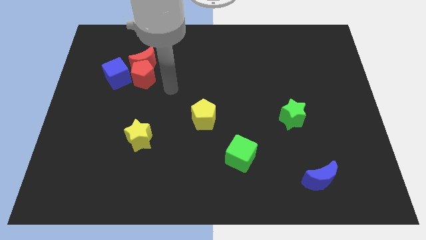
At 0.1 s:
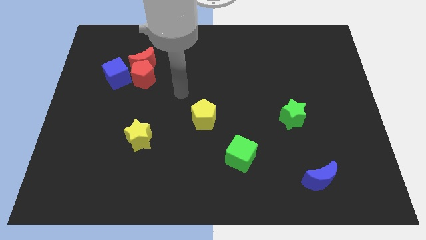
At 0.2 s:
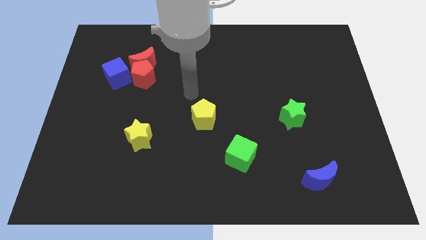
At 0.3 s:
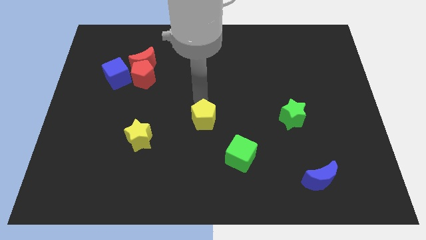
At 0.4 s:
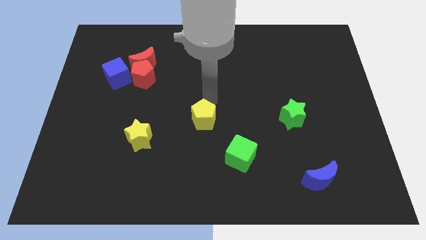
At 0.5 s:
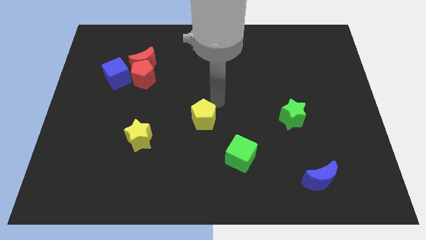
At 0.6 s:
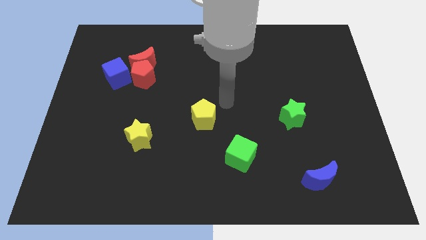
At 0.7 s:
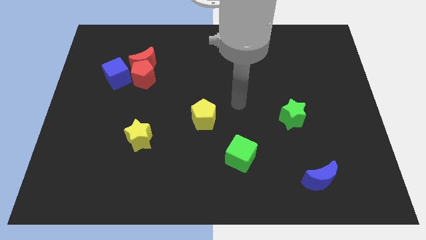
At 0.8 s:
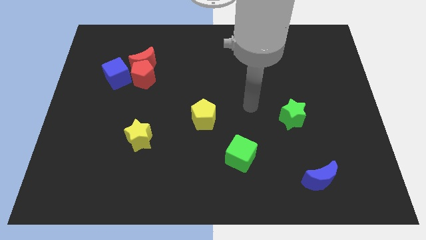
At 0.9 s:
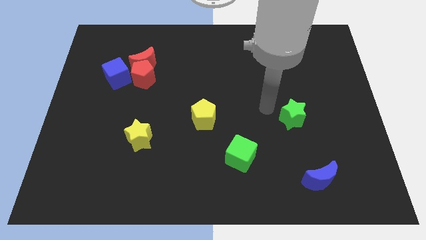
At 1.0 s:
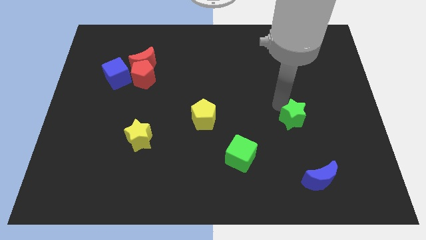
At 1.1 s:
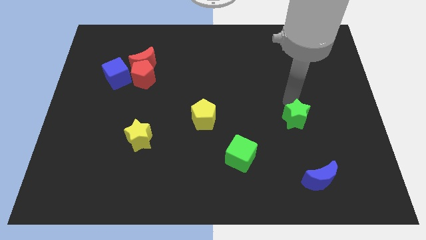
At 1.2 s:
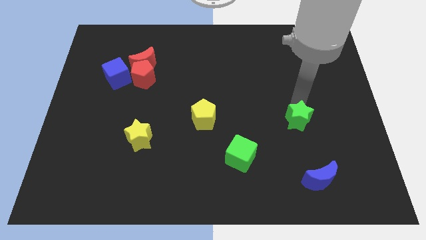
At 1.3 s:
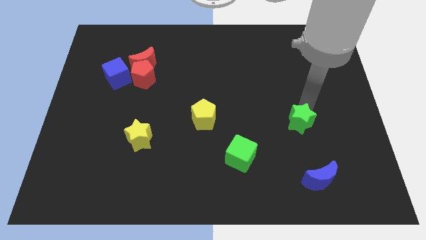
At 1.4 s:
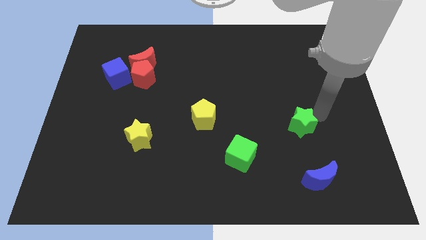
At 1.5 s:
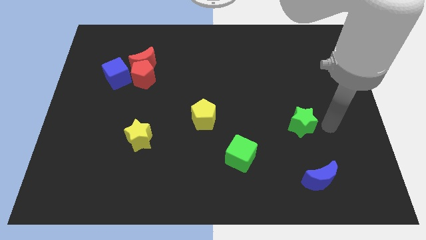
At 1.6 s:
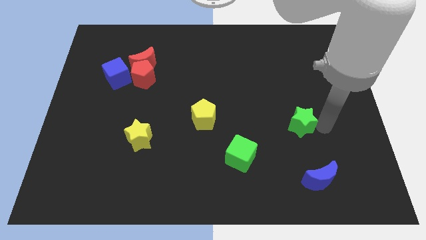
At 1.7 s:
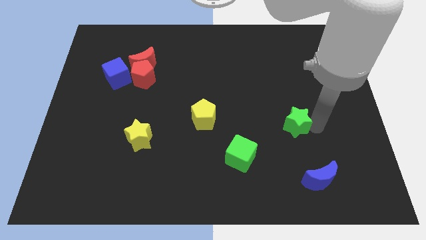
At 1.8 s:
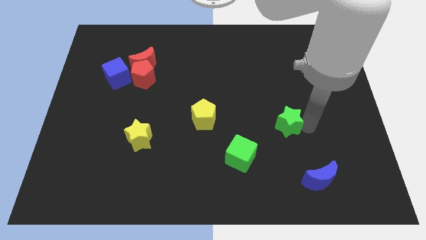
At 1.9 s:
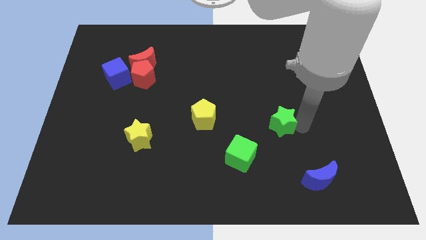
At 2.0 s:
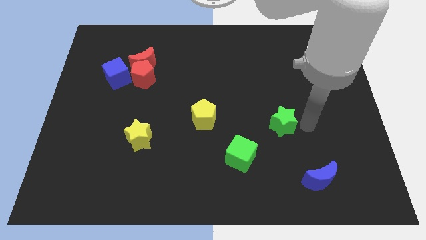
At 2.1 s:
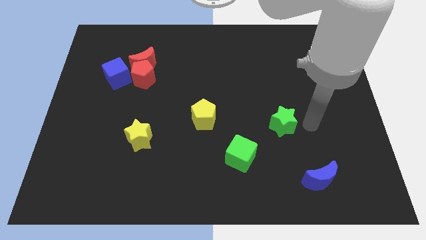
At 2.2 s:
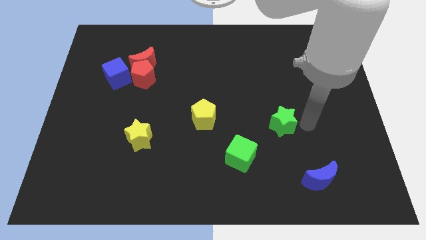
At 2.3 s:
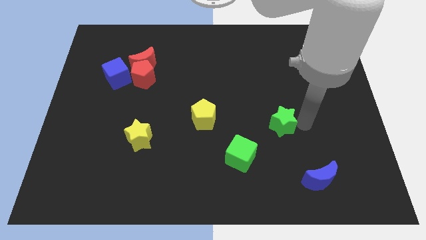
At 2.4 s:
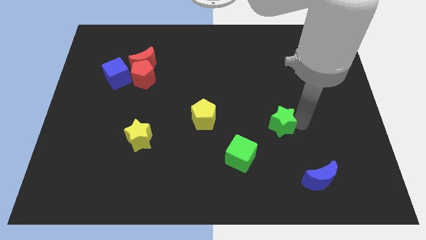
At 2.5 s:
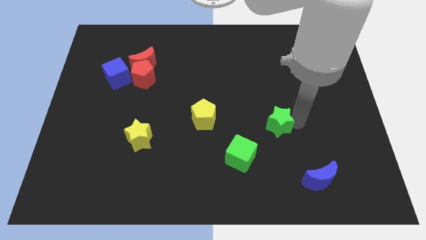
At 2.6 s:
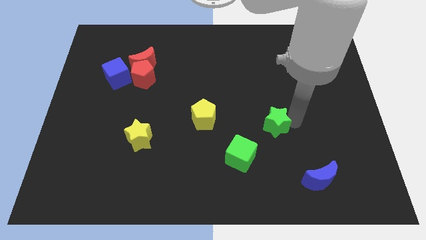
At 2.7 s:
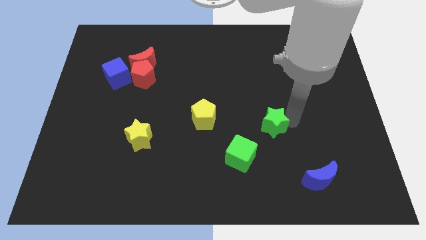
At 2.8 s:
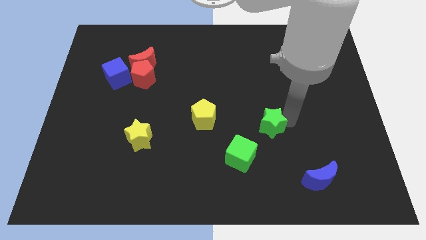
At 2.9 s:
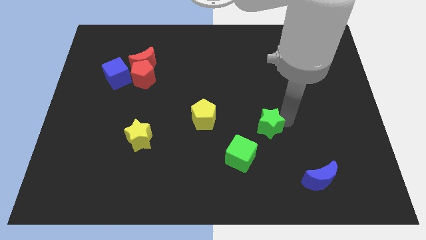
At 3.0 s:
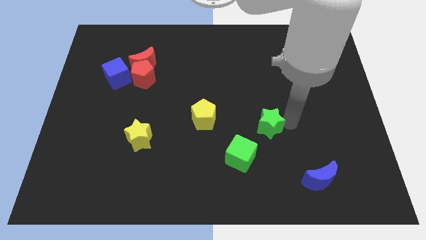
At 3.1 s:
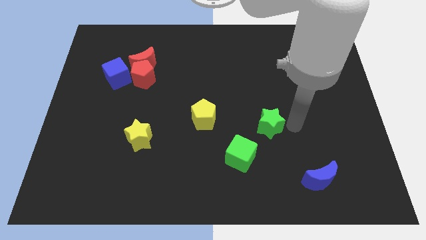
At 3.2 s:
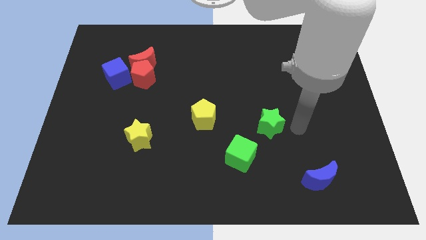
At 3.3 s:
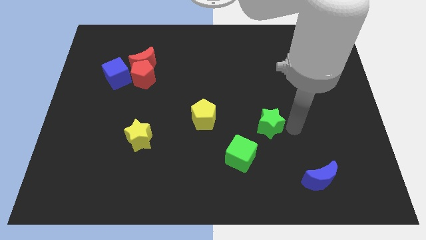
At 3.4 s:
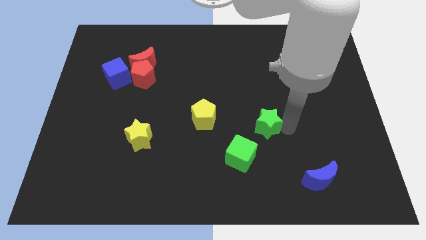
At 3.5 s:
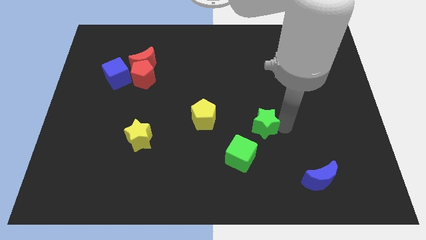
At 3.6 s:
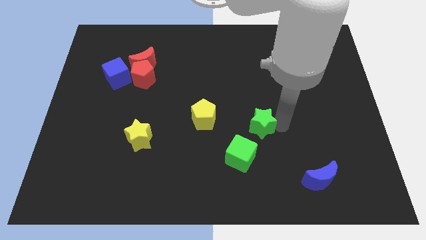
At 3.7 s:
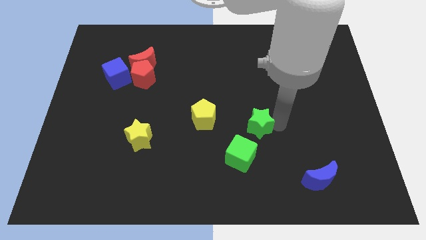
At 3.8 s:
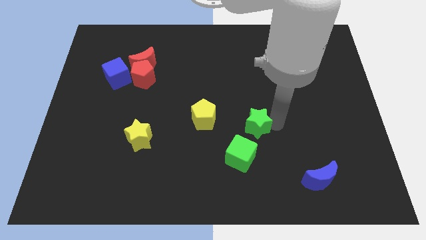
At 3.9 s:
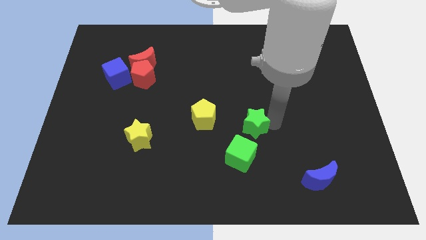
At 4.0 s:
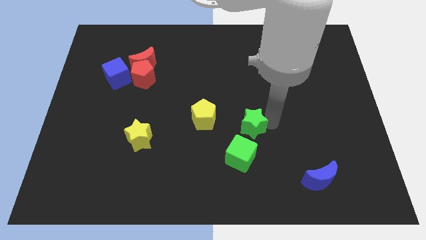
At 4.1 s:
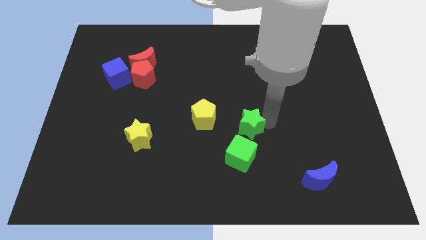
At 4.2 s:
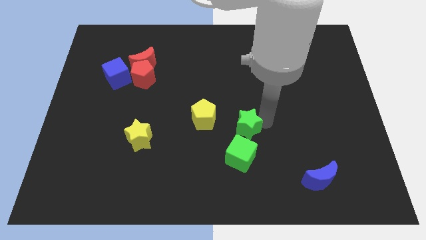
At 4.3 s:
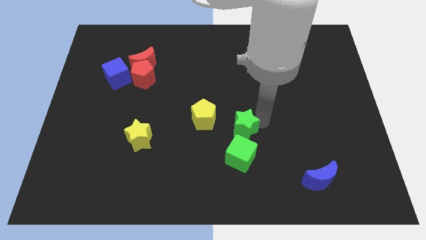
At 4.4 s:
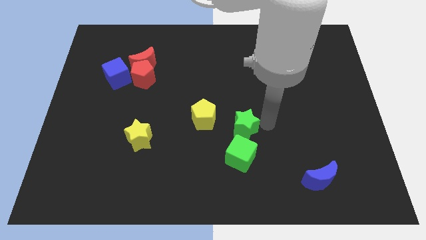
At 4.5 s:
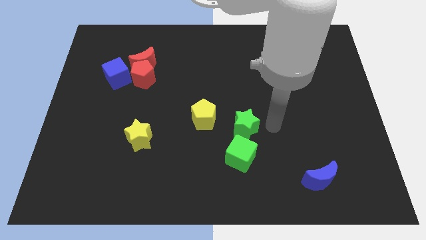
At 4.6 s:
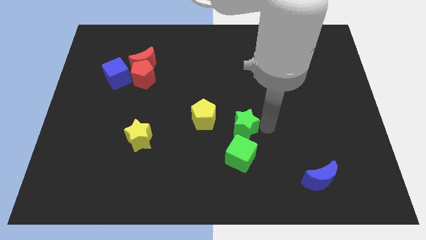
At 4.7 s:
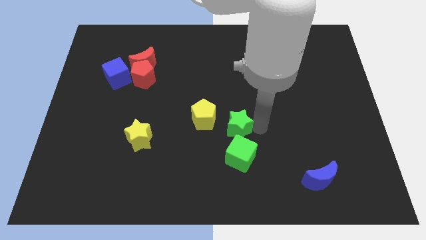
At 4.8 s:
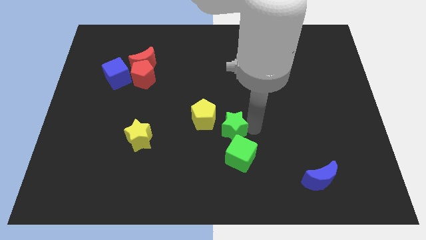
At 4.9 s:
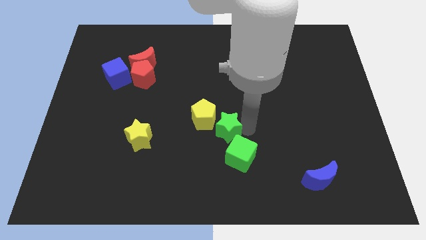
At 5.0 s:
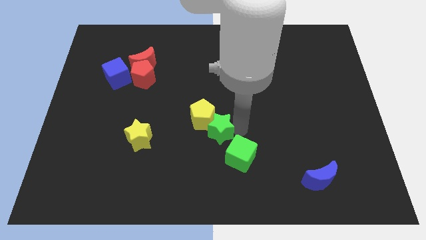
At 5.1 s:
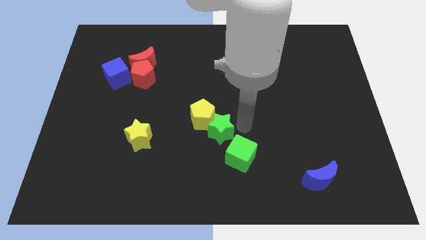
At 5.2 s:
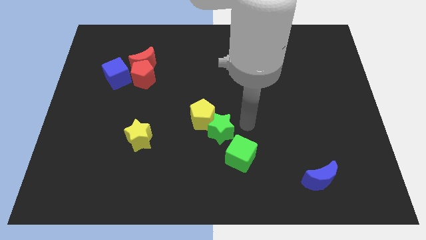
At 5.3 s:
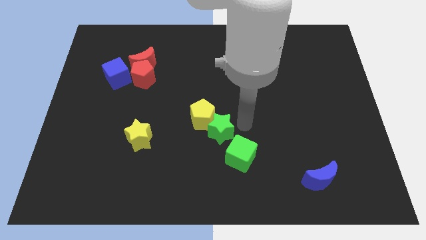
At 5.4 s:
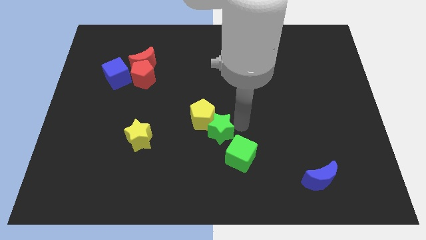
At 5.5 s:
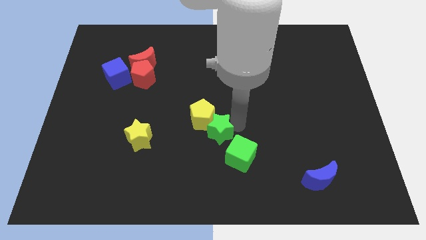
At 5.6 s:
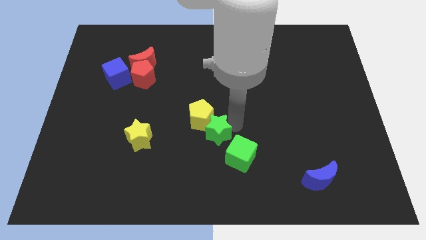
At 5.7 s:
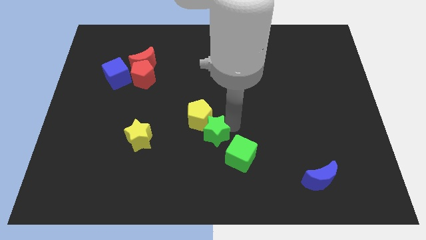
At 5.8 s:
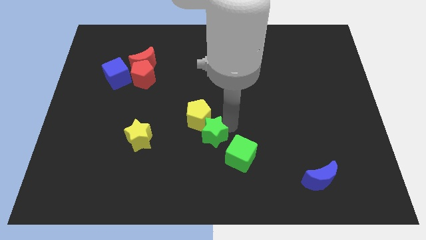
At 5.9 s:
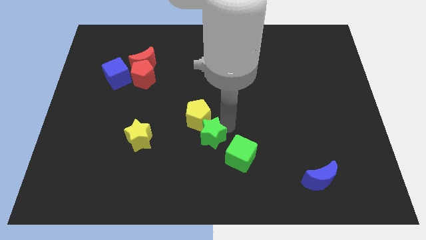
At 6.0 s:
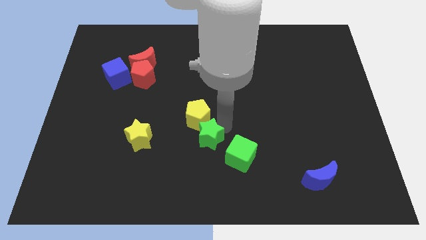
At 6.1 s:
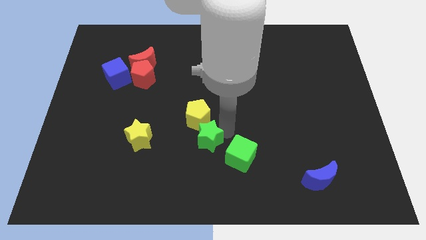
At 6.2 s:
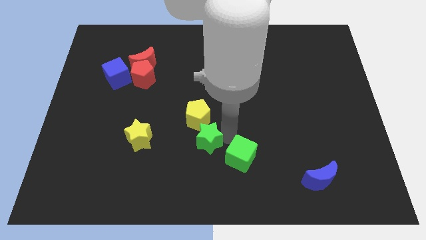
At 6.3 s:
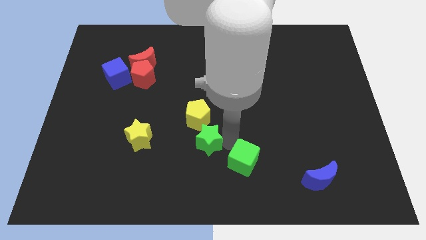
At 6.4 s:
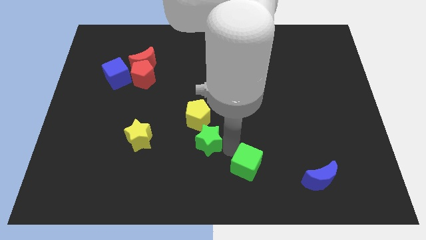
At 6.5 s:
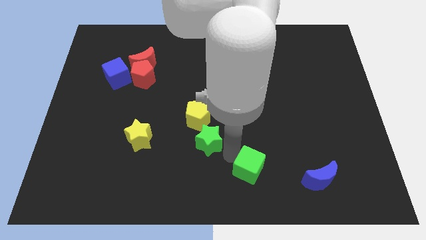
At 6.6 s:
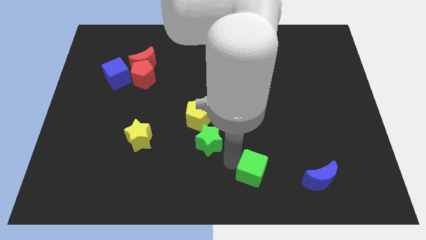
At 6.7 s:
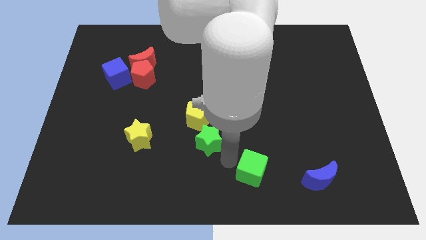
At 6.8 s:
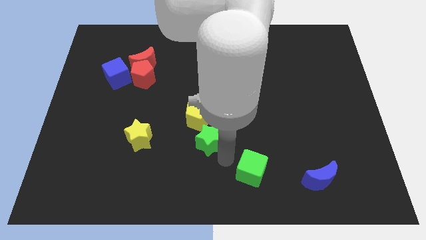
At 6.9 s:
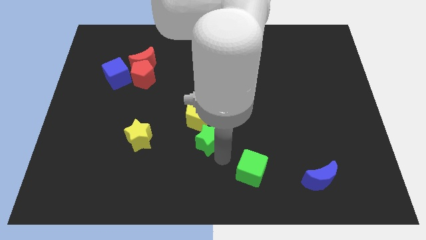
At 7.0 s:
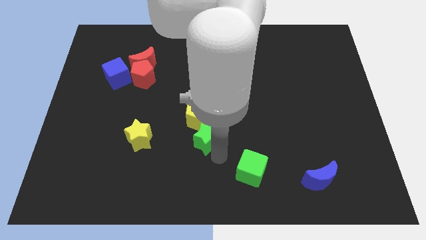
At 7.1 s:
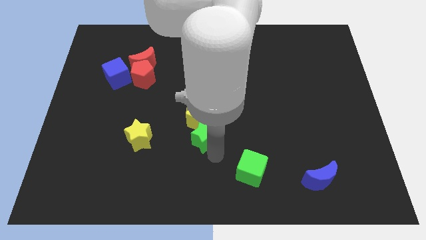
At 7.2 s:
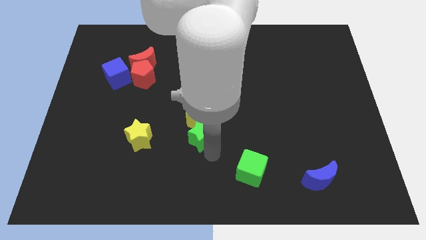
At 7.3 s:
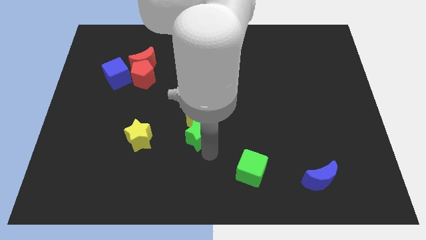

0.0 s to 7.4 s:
slide the green star to the left

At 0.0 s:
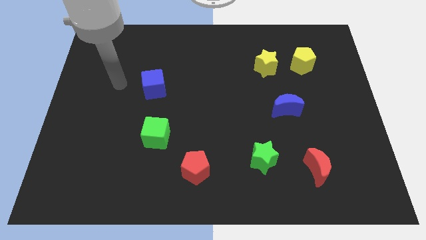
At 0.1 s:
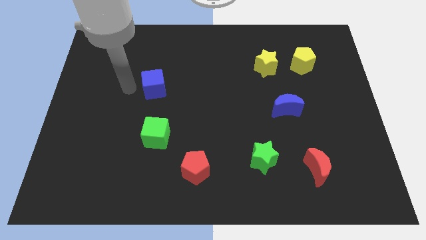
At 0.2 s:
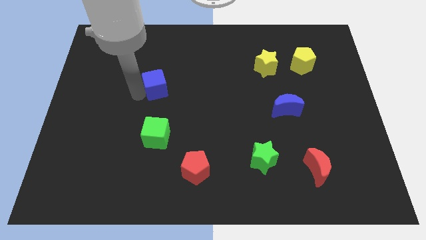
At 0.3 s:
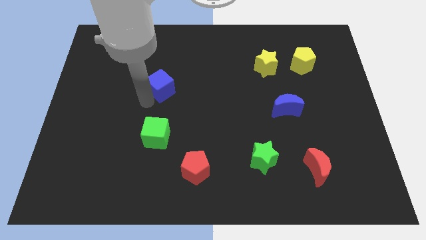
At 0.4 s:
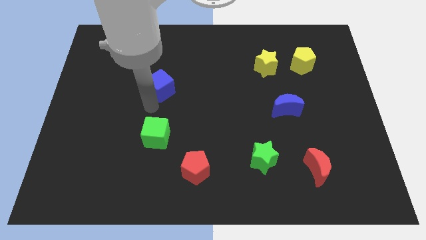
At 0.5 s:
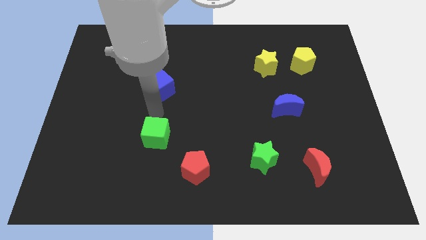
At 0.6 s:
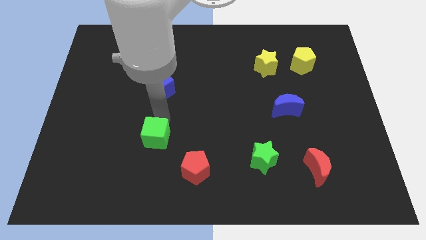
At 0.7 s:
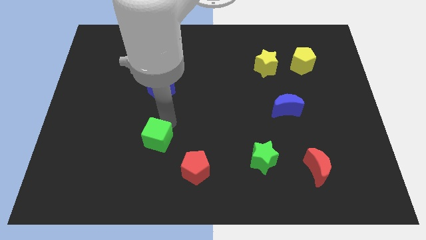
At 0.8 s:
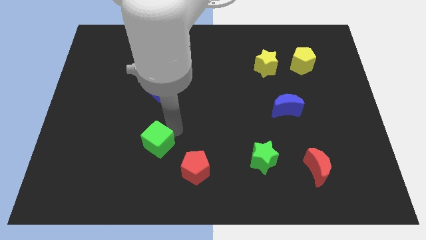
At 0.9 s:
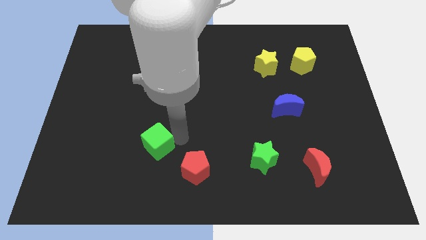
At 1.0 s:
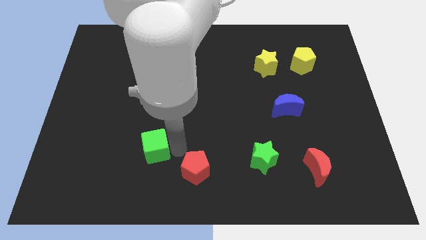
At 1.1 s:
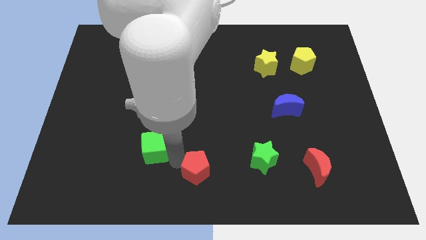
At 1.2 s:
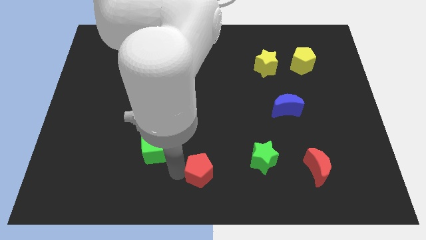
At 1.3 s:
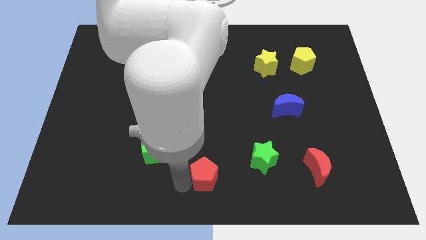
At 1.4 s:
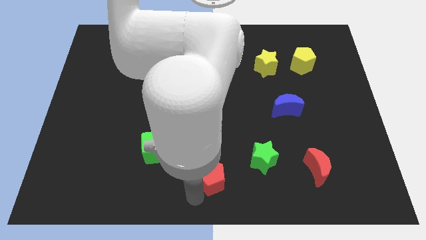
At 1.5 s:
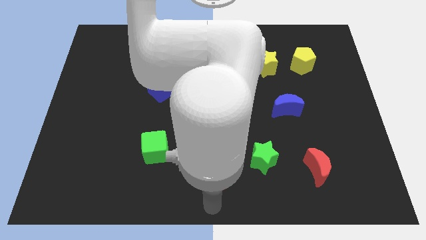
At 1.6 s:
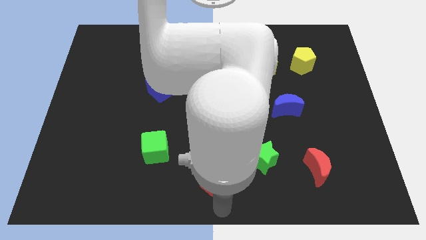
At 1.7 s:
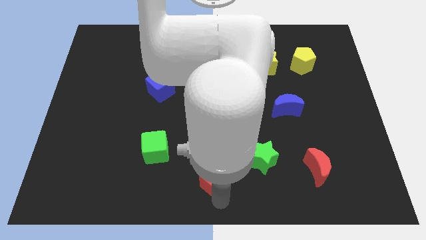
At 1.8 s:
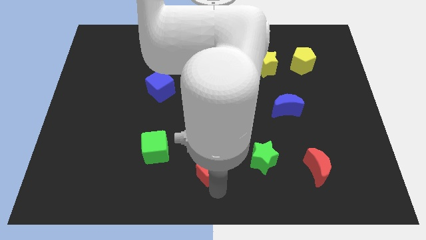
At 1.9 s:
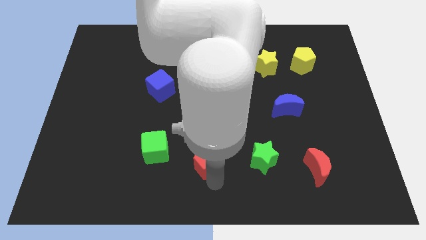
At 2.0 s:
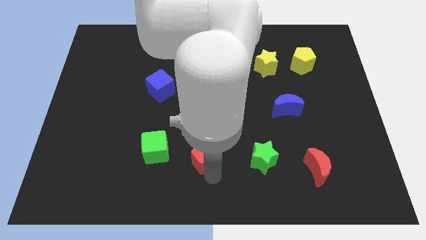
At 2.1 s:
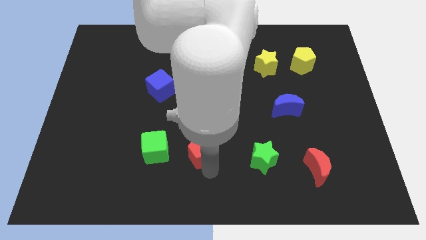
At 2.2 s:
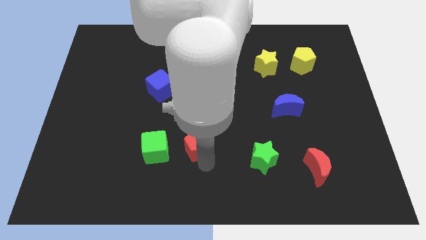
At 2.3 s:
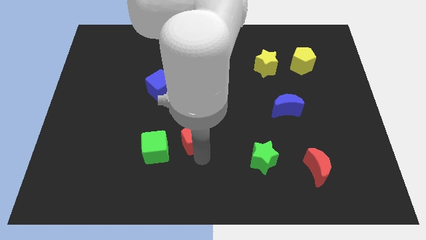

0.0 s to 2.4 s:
slide the red pentagon slightly up
